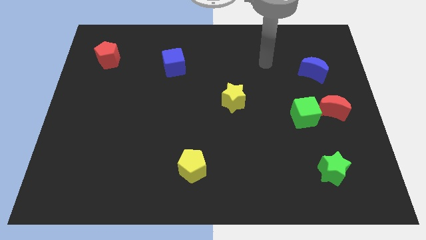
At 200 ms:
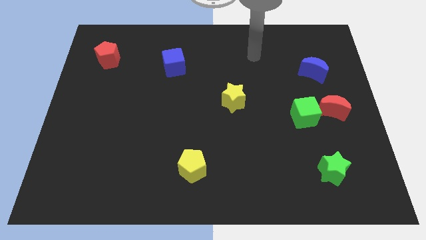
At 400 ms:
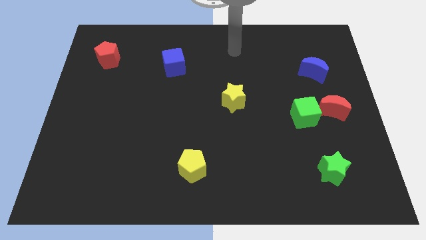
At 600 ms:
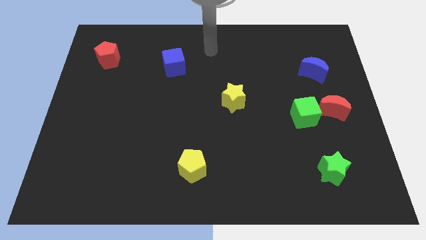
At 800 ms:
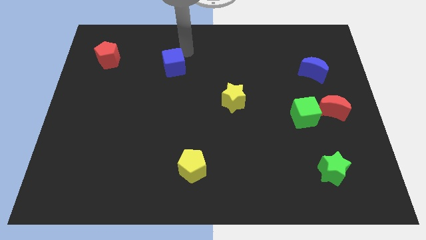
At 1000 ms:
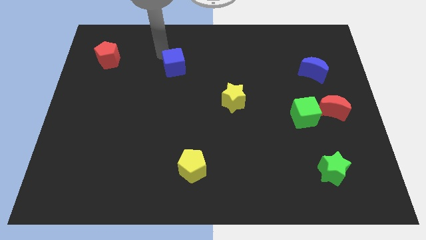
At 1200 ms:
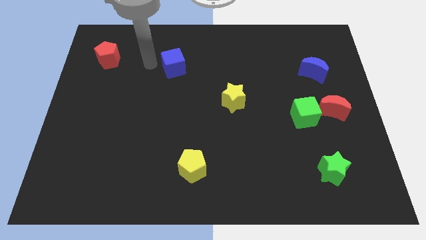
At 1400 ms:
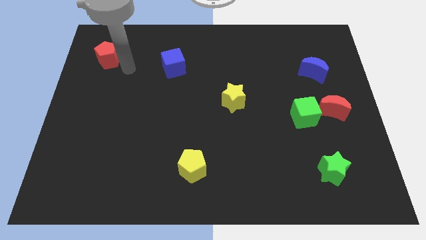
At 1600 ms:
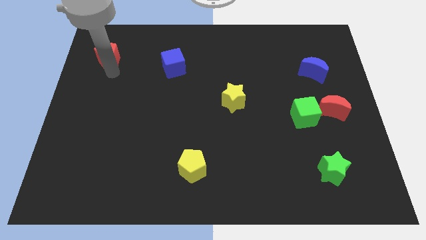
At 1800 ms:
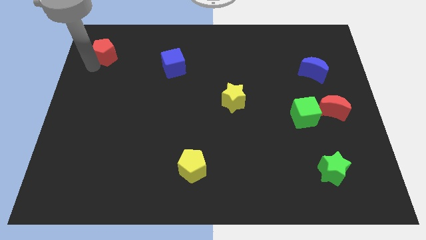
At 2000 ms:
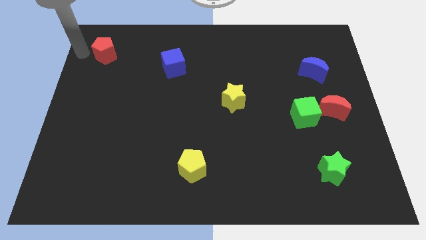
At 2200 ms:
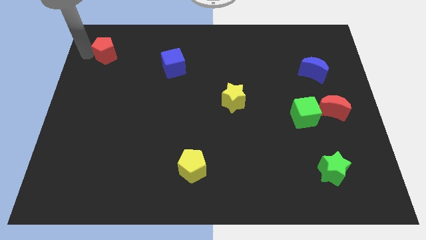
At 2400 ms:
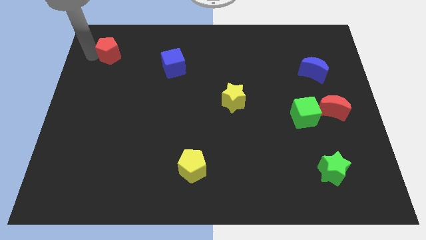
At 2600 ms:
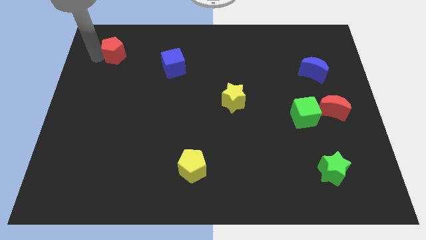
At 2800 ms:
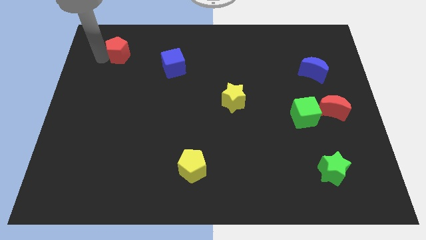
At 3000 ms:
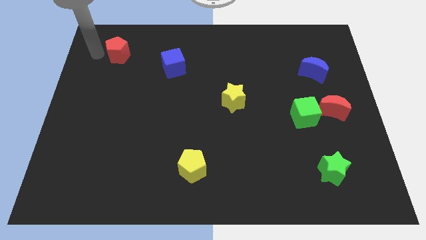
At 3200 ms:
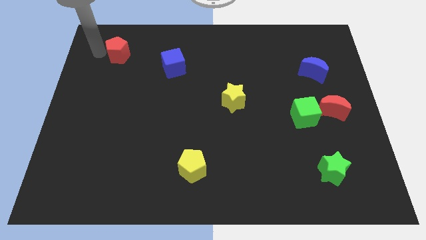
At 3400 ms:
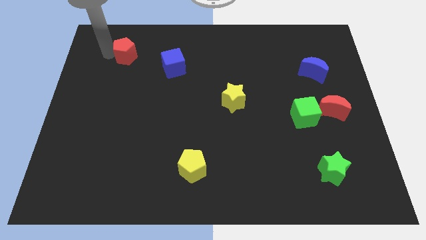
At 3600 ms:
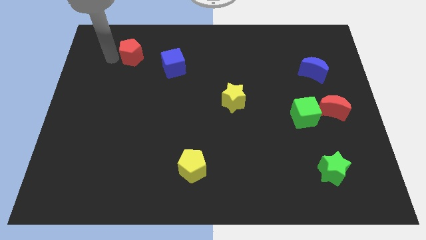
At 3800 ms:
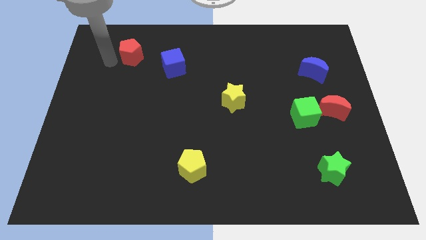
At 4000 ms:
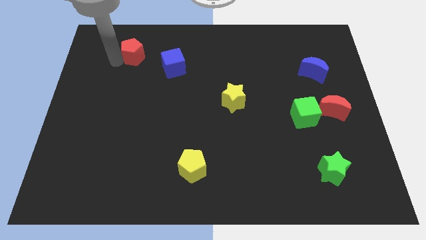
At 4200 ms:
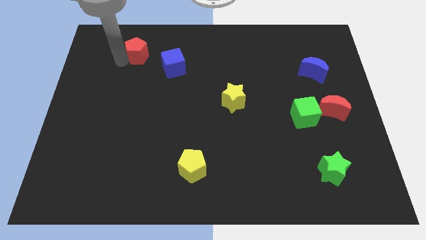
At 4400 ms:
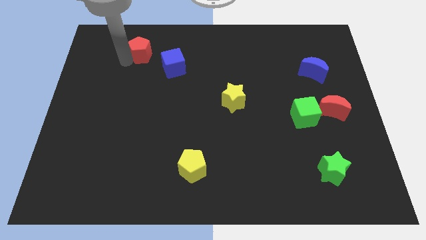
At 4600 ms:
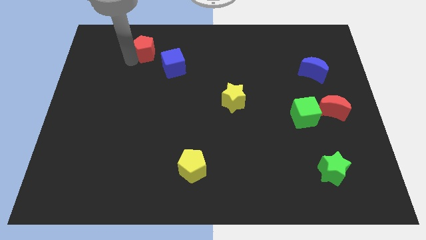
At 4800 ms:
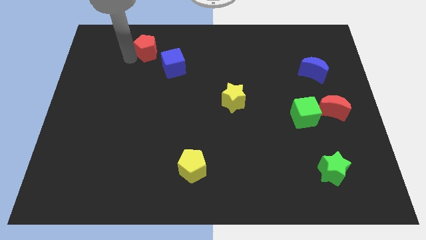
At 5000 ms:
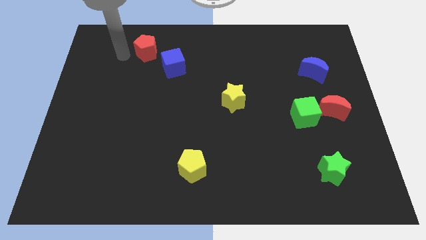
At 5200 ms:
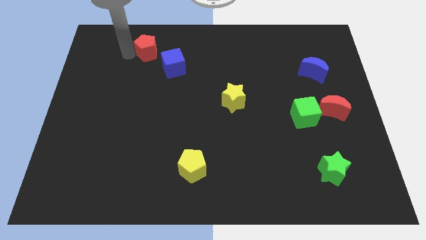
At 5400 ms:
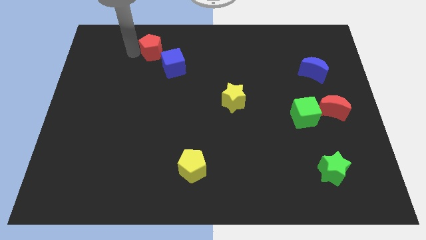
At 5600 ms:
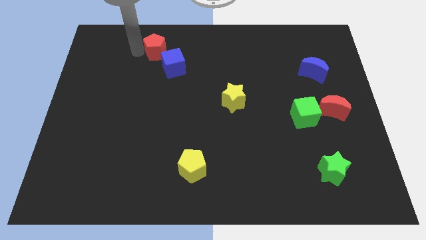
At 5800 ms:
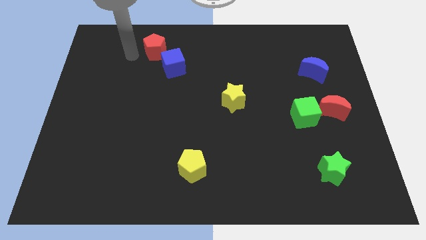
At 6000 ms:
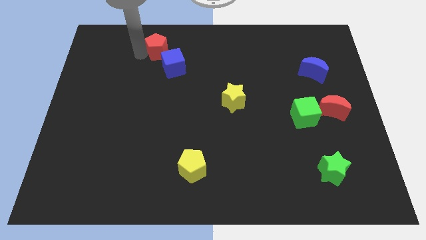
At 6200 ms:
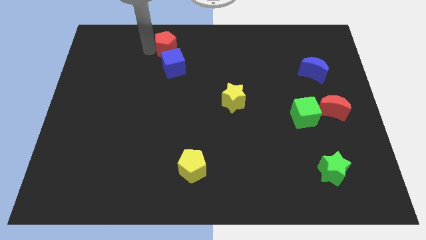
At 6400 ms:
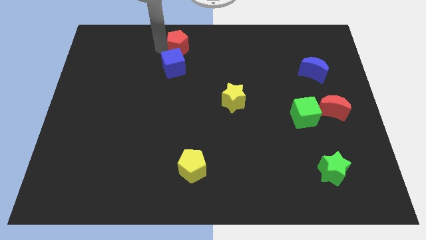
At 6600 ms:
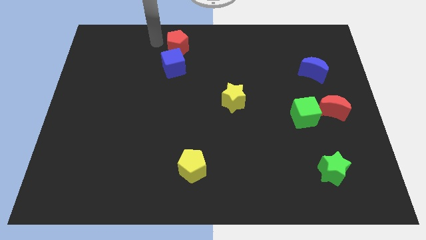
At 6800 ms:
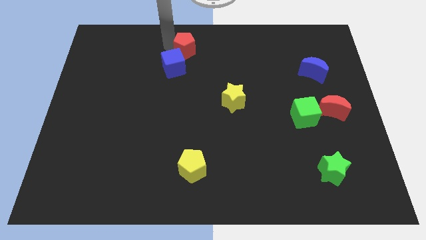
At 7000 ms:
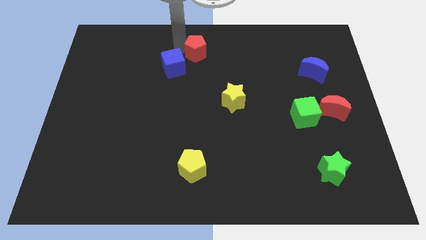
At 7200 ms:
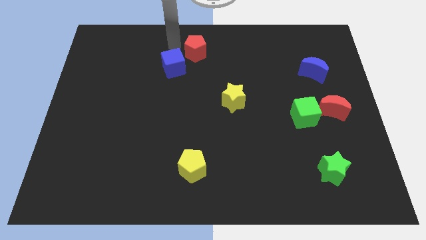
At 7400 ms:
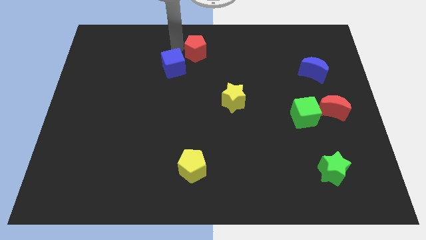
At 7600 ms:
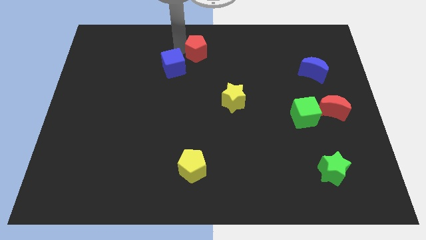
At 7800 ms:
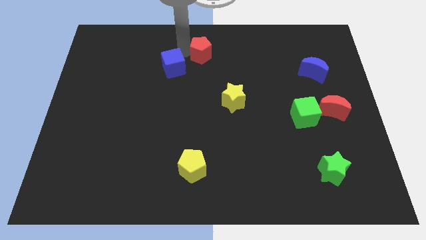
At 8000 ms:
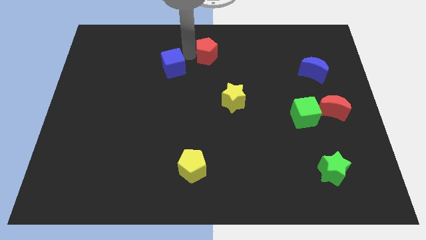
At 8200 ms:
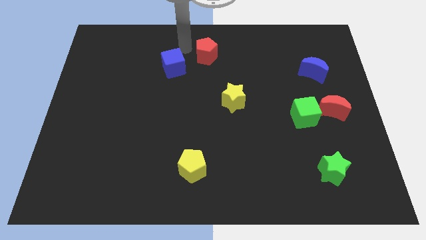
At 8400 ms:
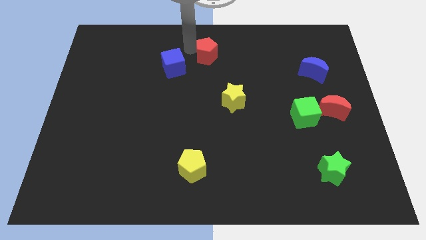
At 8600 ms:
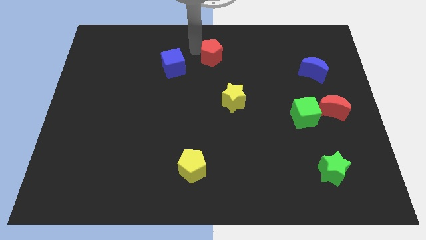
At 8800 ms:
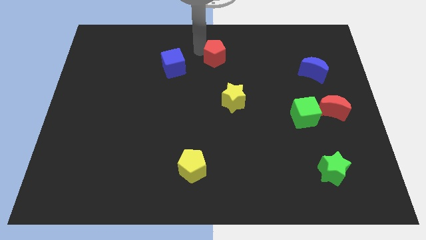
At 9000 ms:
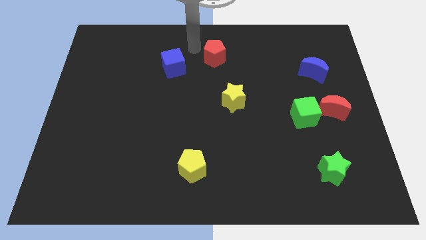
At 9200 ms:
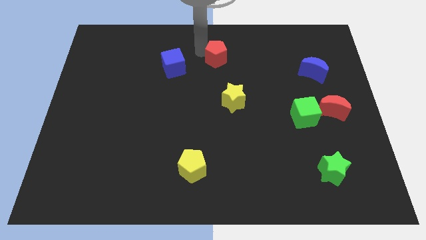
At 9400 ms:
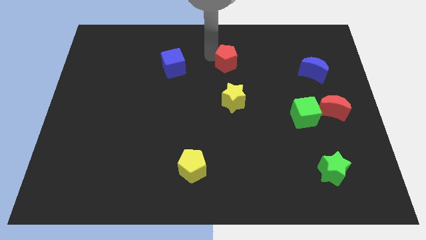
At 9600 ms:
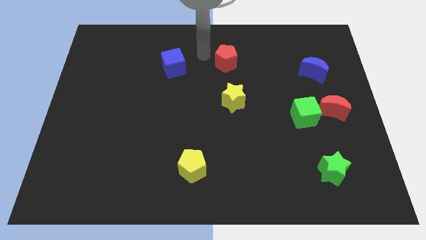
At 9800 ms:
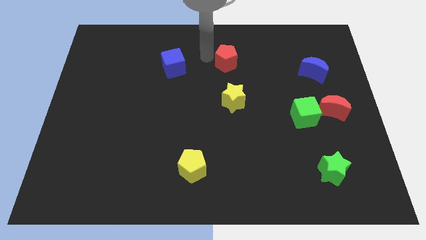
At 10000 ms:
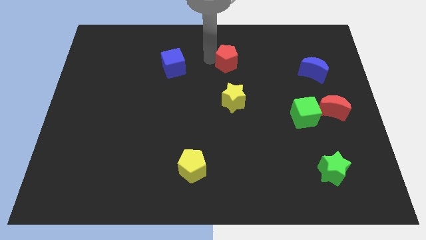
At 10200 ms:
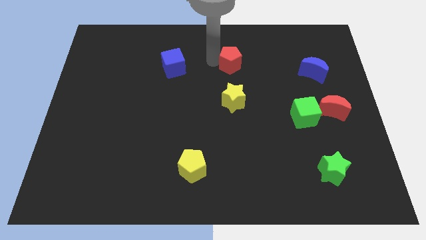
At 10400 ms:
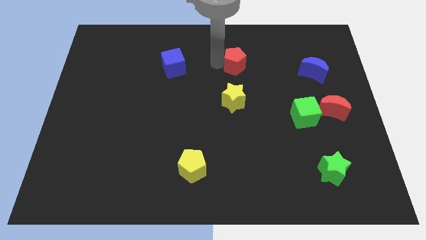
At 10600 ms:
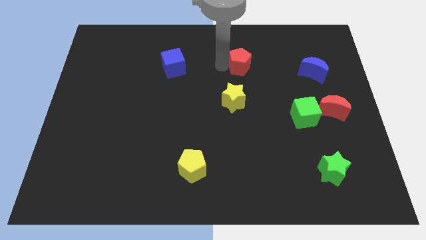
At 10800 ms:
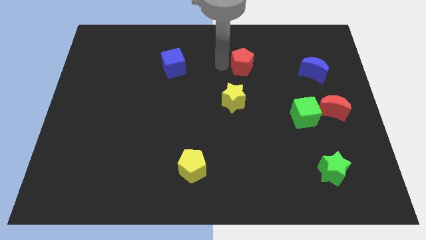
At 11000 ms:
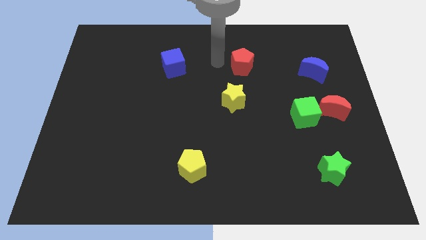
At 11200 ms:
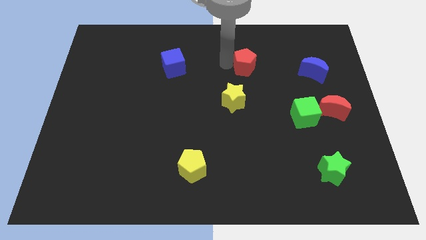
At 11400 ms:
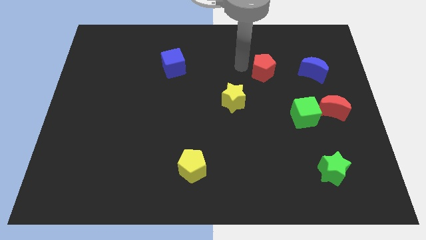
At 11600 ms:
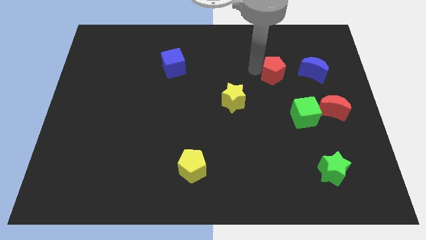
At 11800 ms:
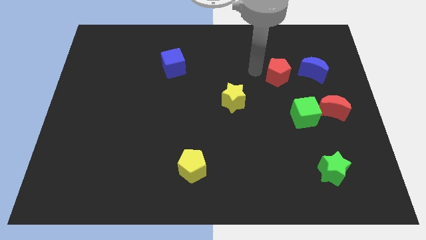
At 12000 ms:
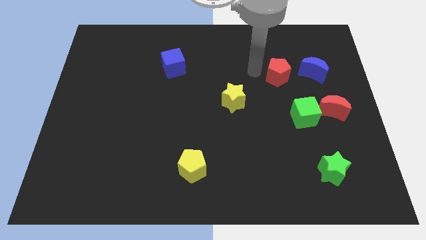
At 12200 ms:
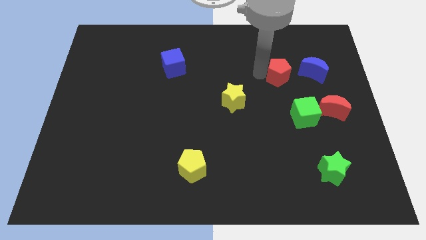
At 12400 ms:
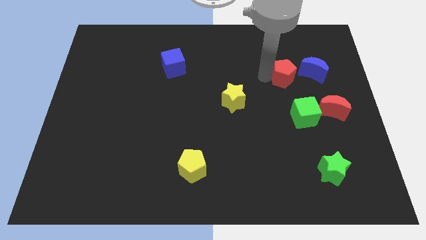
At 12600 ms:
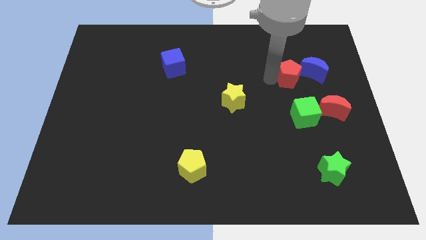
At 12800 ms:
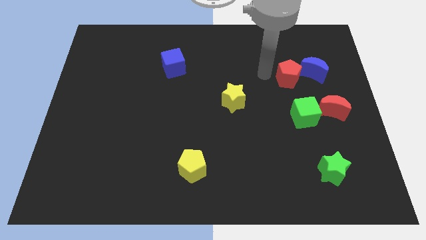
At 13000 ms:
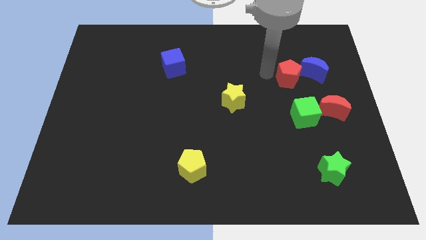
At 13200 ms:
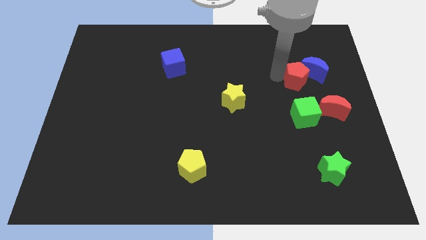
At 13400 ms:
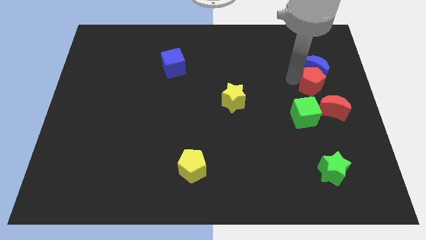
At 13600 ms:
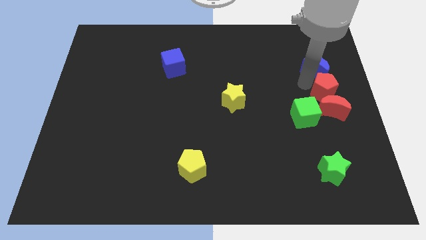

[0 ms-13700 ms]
put the red pentagon to the right side

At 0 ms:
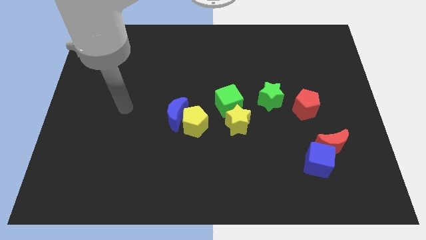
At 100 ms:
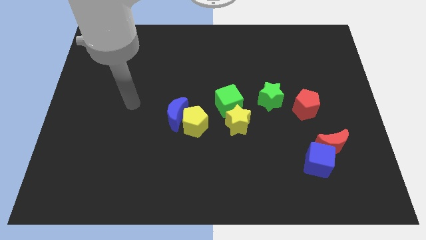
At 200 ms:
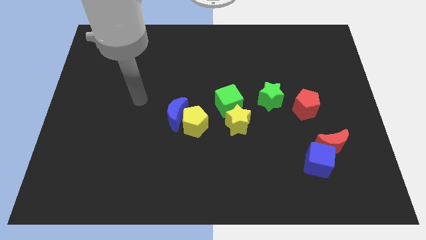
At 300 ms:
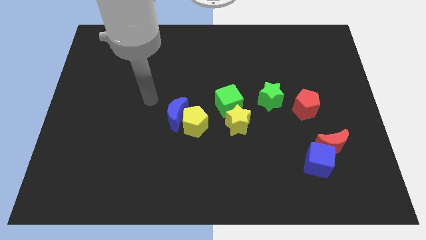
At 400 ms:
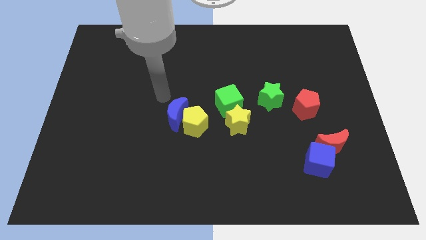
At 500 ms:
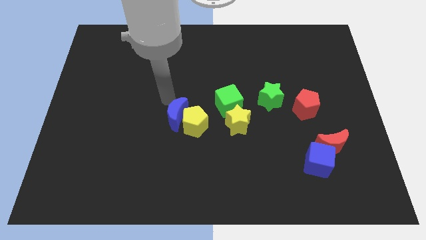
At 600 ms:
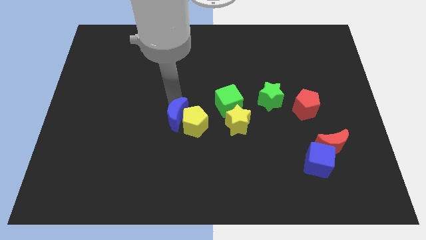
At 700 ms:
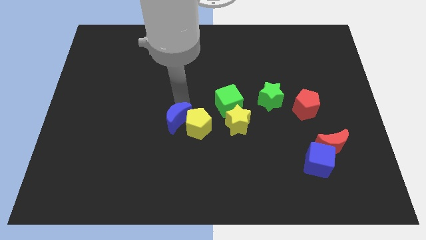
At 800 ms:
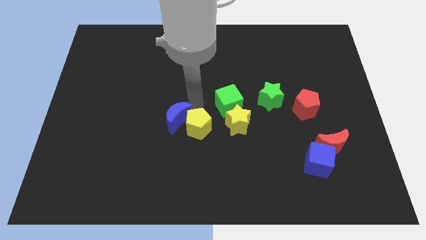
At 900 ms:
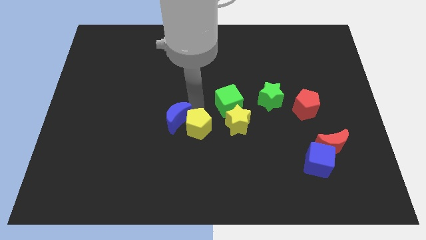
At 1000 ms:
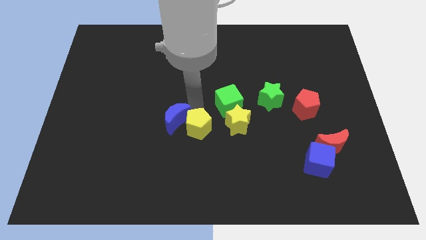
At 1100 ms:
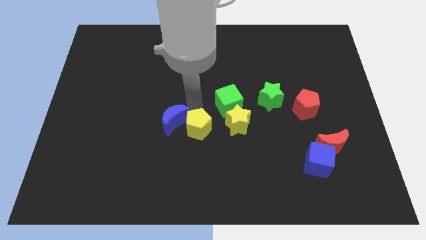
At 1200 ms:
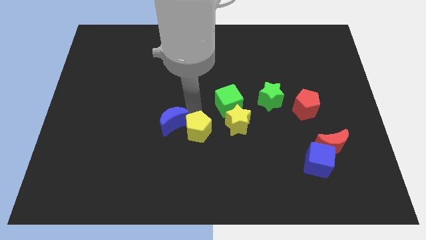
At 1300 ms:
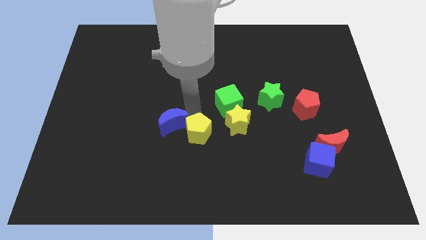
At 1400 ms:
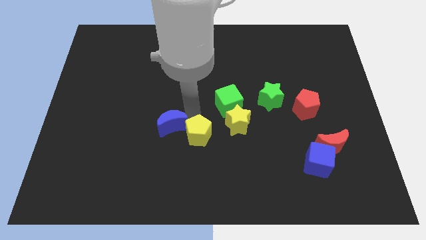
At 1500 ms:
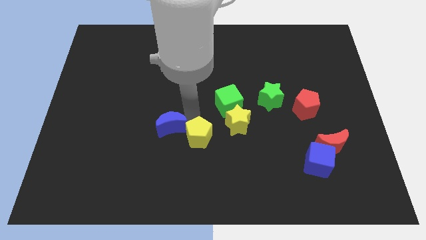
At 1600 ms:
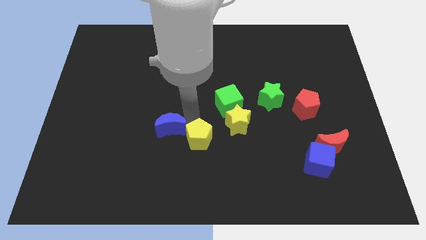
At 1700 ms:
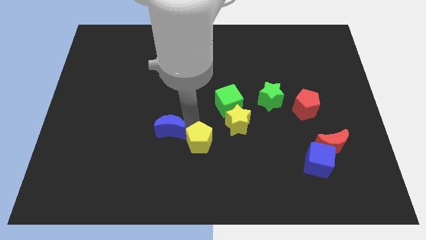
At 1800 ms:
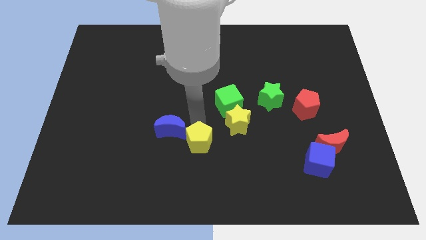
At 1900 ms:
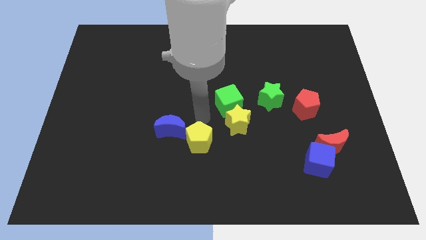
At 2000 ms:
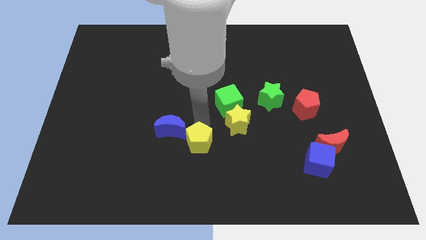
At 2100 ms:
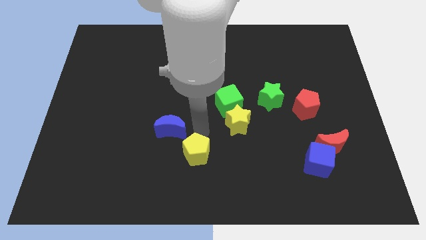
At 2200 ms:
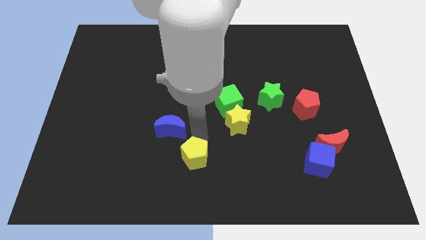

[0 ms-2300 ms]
put the yellow pentagon to the bottom
